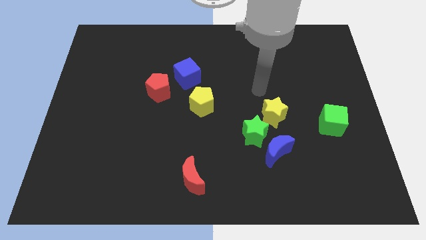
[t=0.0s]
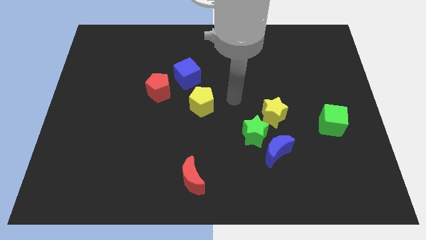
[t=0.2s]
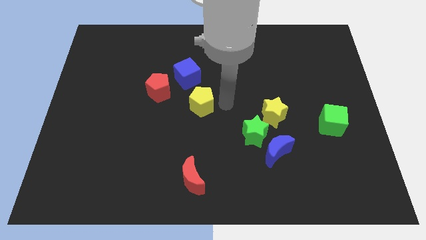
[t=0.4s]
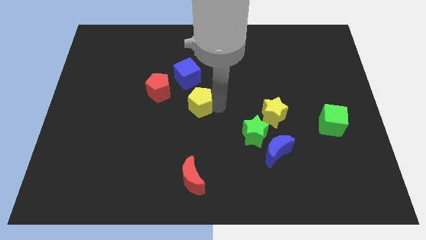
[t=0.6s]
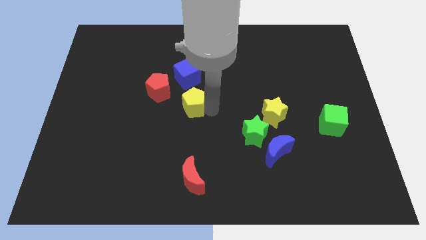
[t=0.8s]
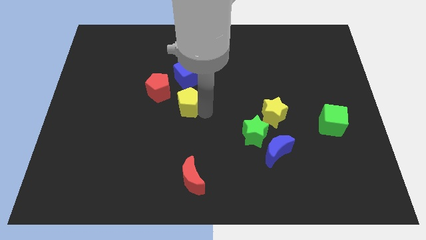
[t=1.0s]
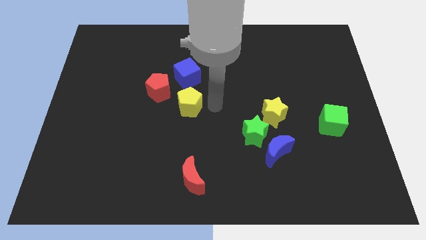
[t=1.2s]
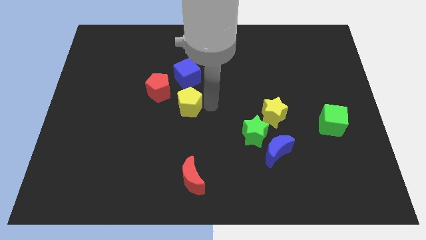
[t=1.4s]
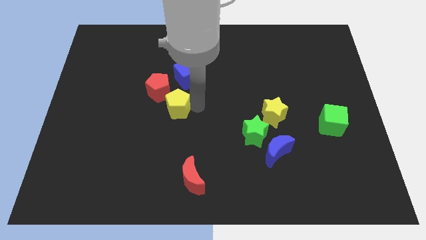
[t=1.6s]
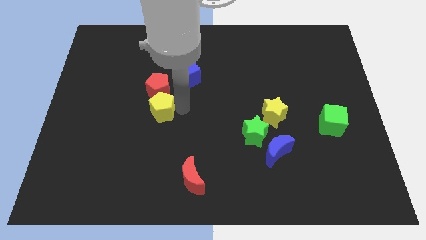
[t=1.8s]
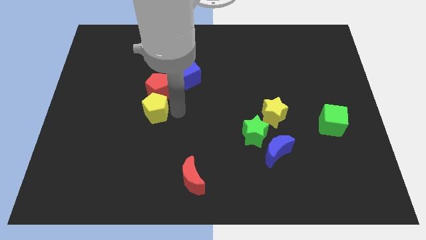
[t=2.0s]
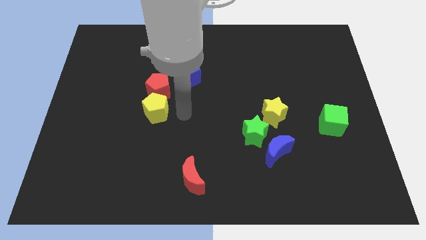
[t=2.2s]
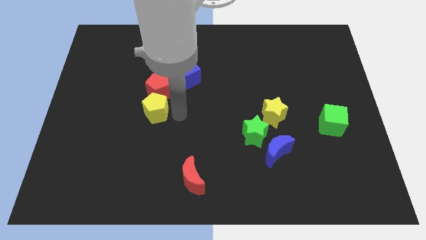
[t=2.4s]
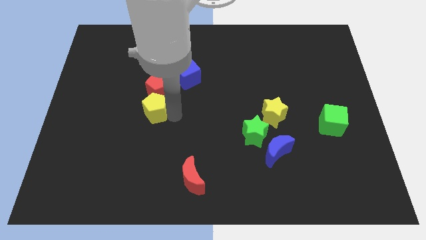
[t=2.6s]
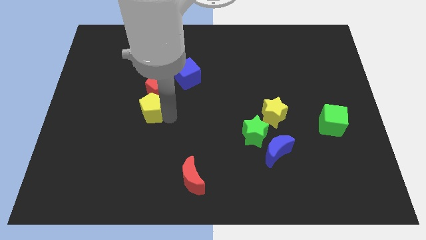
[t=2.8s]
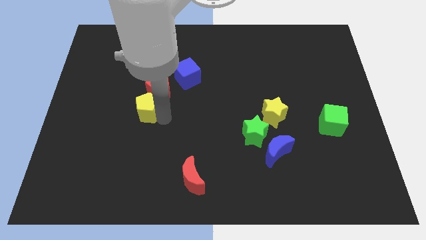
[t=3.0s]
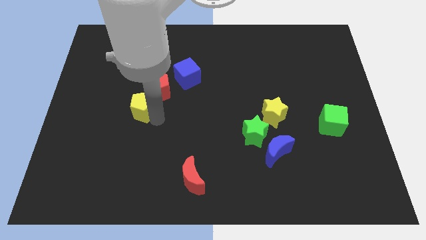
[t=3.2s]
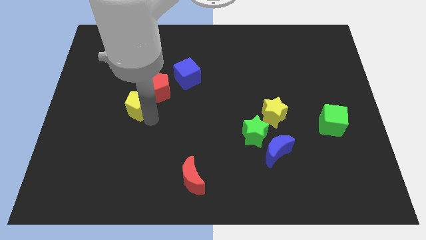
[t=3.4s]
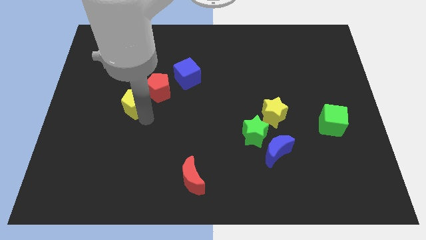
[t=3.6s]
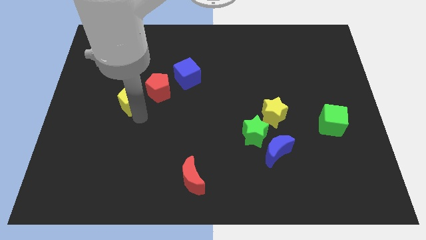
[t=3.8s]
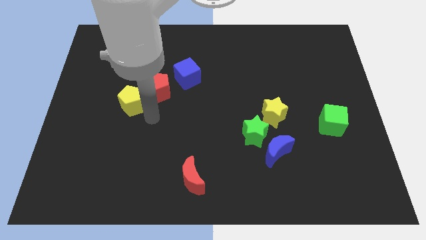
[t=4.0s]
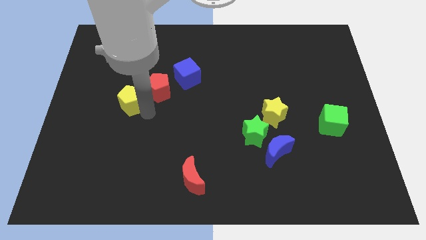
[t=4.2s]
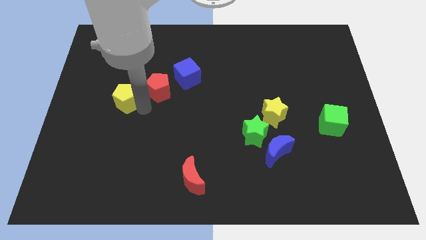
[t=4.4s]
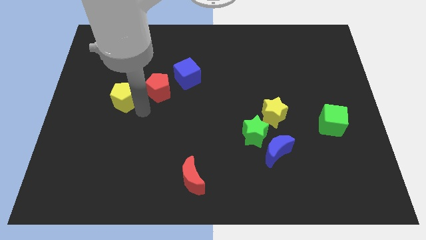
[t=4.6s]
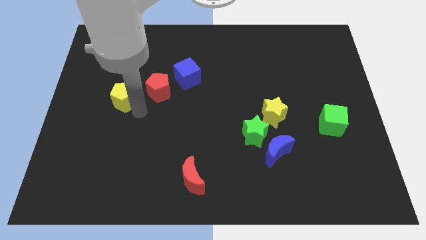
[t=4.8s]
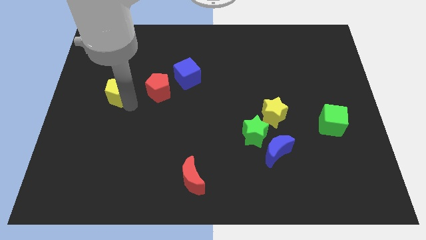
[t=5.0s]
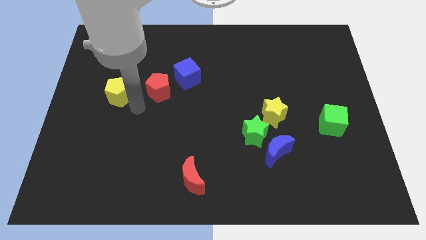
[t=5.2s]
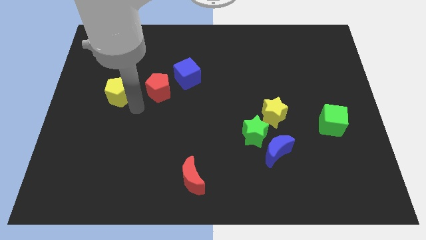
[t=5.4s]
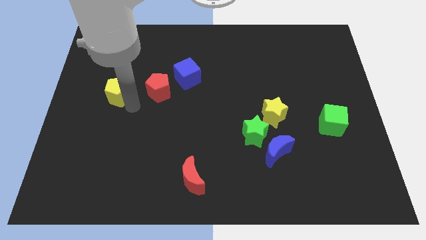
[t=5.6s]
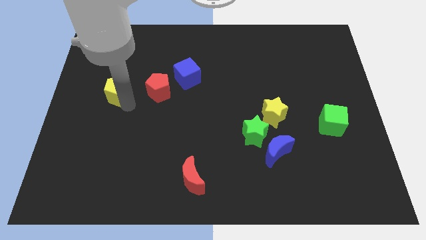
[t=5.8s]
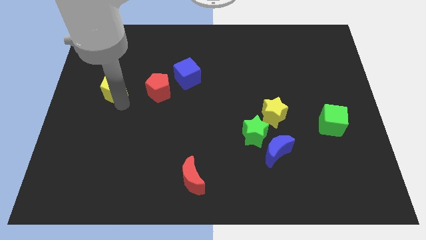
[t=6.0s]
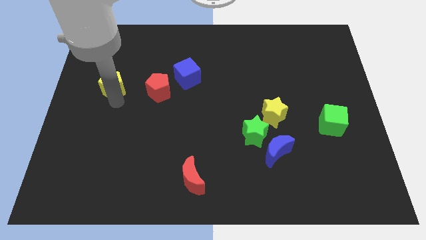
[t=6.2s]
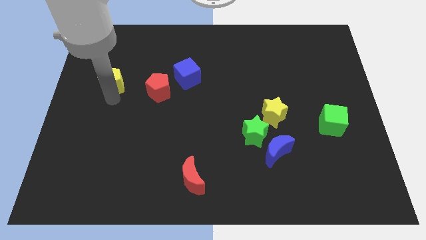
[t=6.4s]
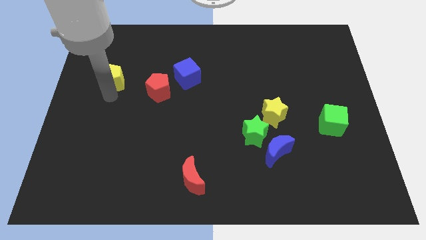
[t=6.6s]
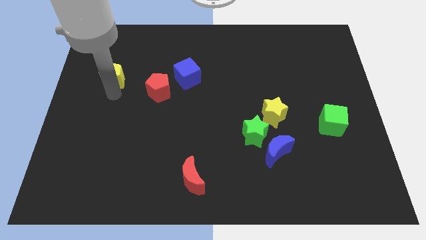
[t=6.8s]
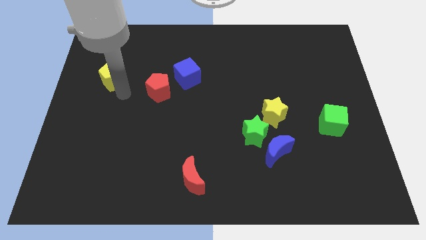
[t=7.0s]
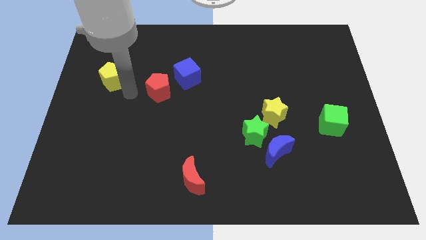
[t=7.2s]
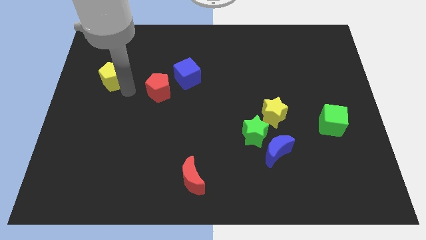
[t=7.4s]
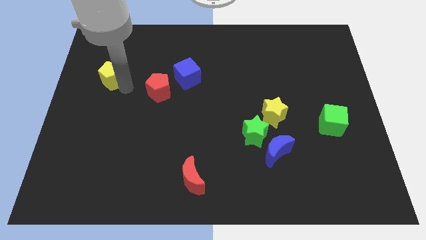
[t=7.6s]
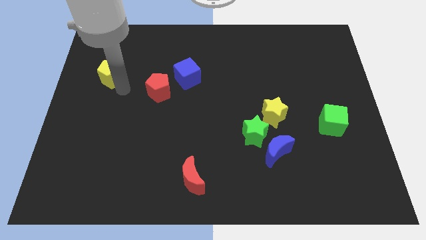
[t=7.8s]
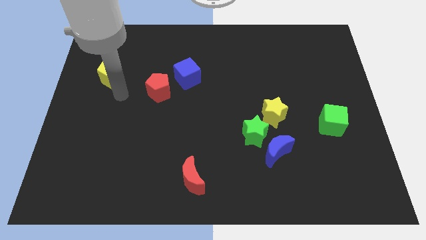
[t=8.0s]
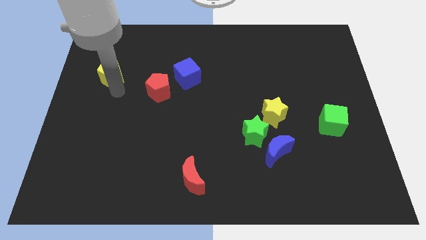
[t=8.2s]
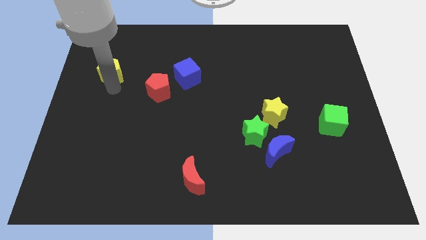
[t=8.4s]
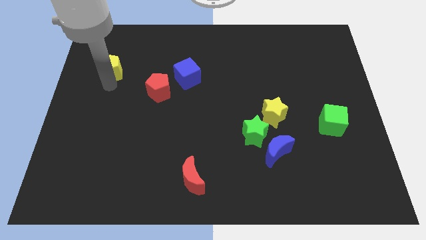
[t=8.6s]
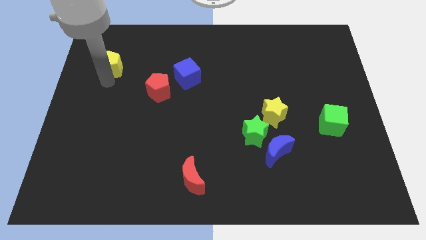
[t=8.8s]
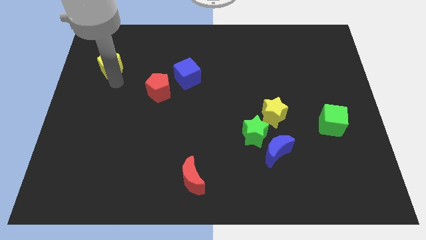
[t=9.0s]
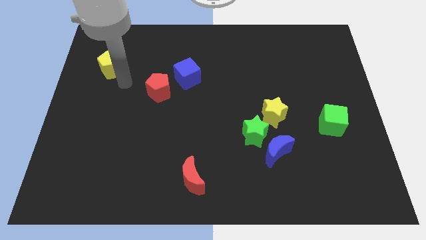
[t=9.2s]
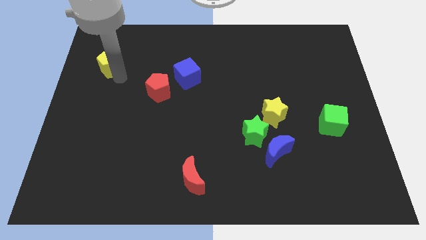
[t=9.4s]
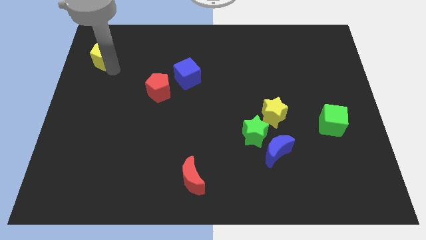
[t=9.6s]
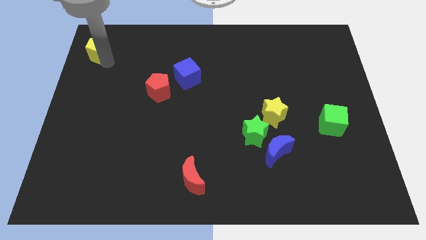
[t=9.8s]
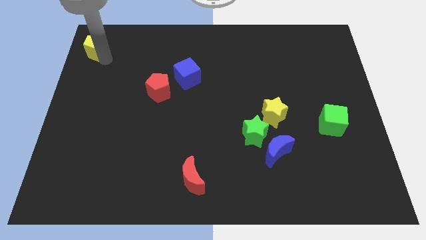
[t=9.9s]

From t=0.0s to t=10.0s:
push the yellow pentagon to the upper left corner

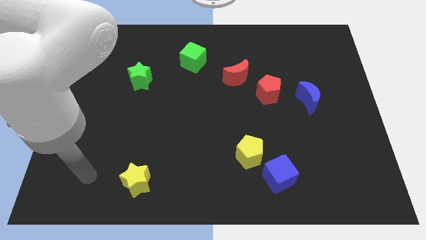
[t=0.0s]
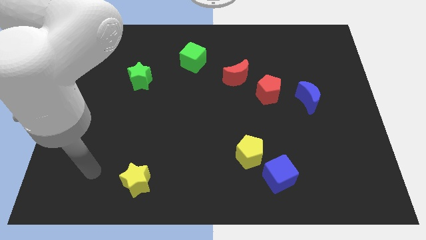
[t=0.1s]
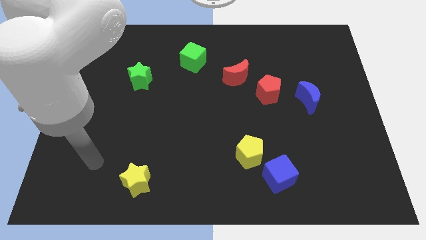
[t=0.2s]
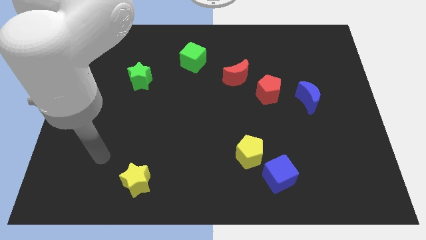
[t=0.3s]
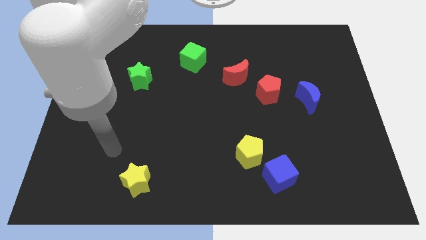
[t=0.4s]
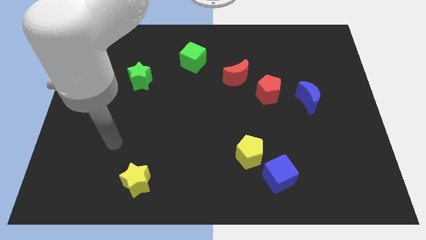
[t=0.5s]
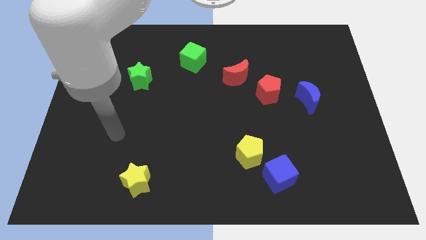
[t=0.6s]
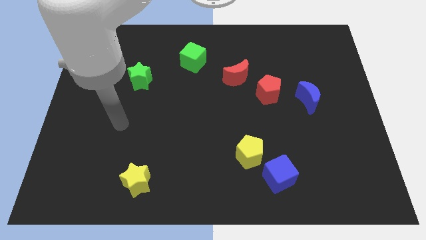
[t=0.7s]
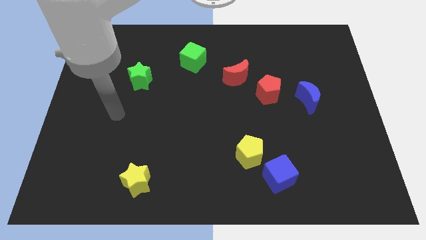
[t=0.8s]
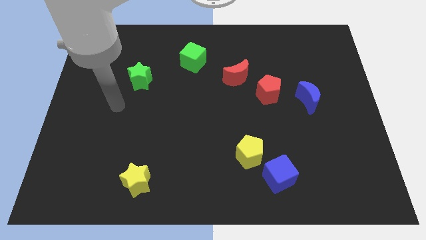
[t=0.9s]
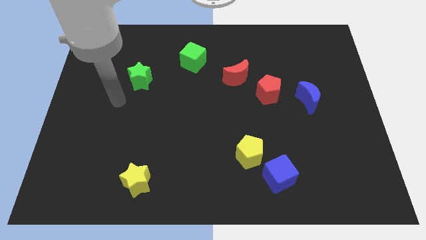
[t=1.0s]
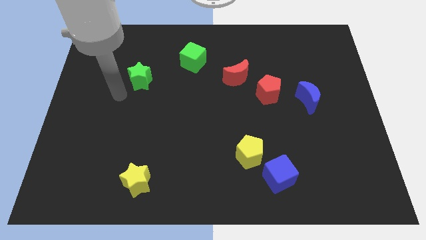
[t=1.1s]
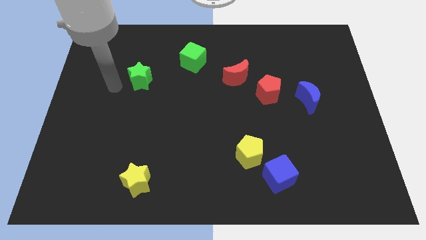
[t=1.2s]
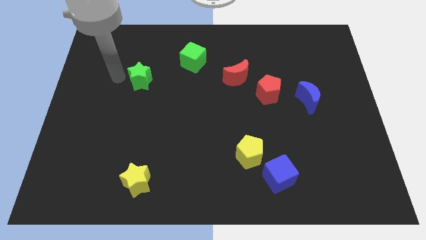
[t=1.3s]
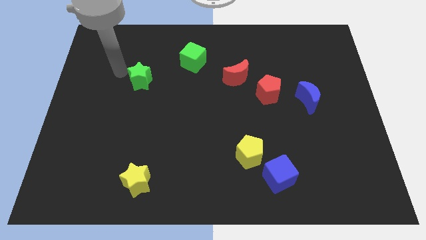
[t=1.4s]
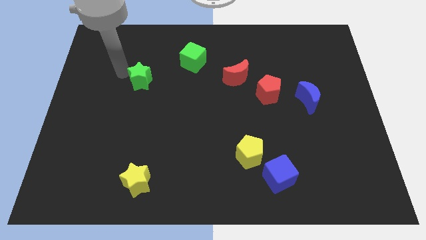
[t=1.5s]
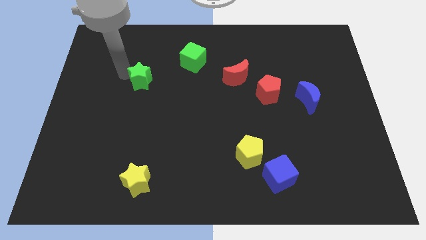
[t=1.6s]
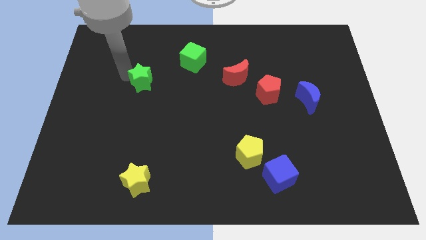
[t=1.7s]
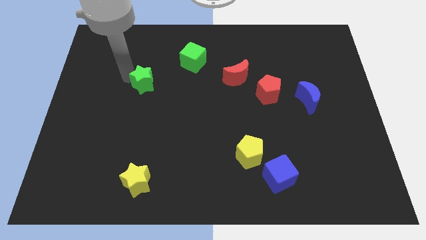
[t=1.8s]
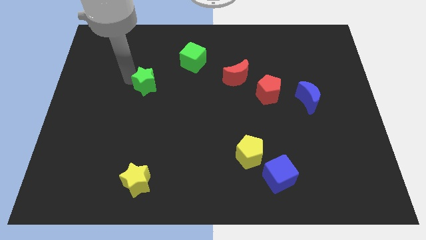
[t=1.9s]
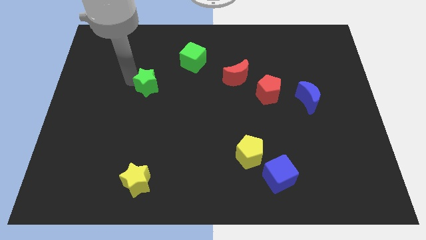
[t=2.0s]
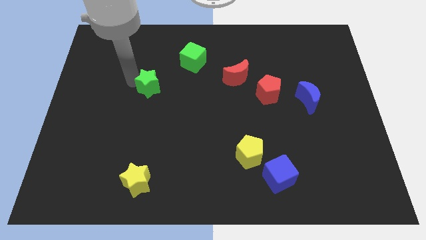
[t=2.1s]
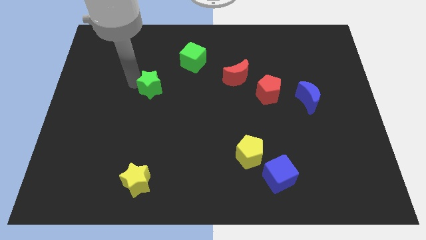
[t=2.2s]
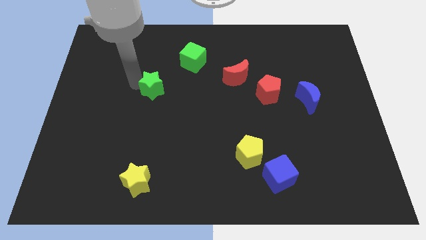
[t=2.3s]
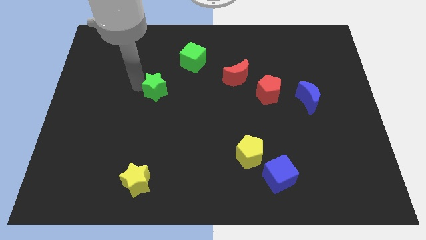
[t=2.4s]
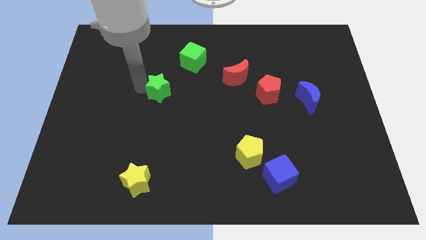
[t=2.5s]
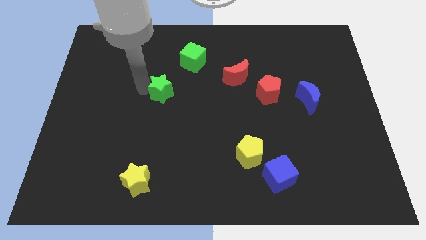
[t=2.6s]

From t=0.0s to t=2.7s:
move the green star to the middle
